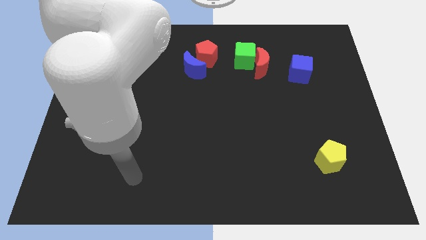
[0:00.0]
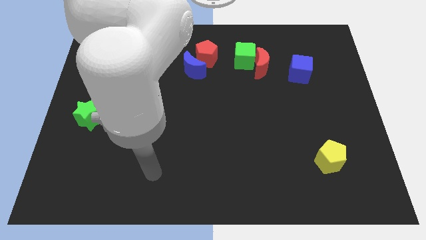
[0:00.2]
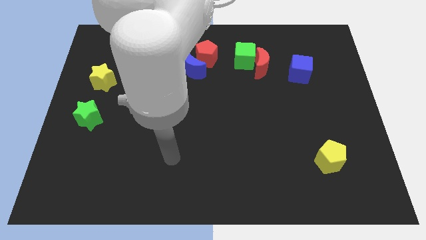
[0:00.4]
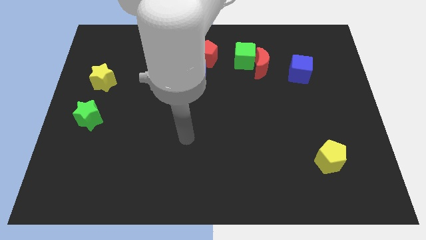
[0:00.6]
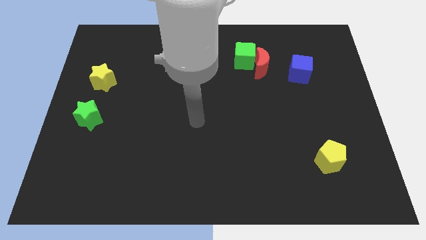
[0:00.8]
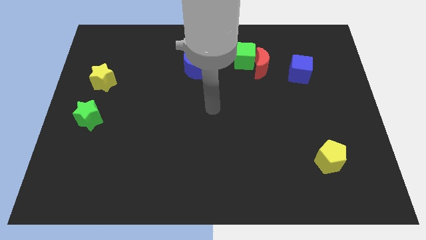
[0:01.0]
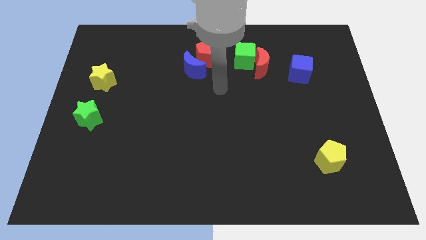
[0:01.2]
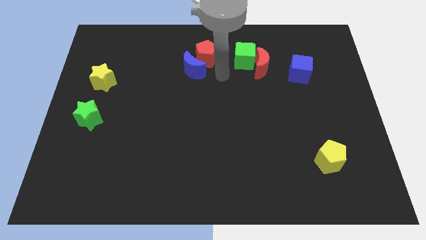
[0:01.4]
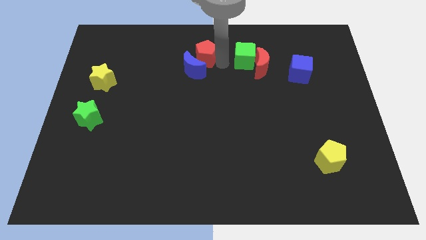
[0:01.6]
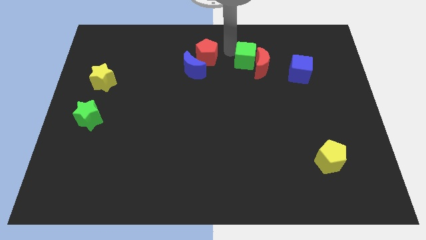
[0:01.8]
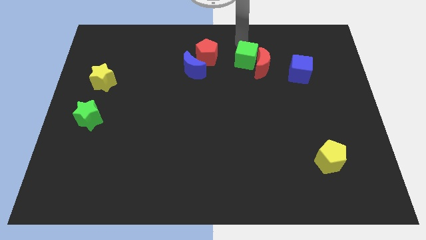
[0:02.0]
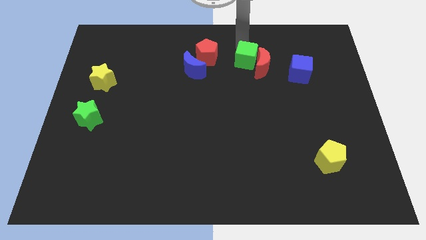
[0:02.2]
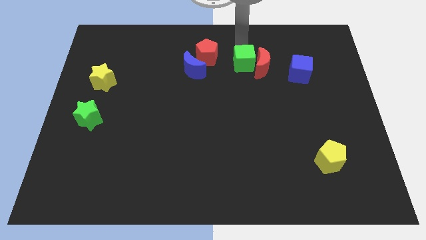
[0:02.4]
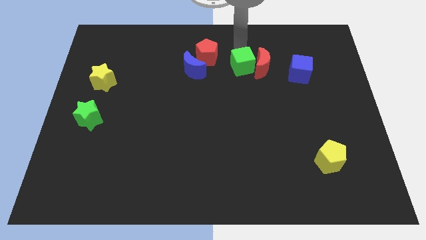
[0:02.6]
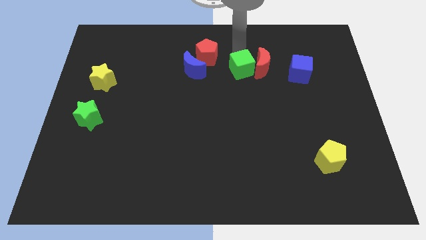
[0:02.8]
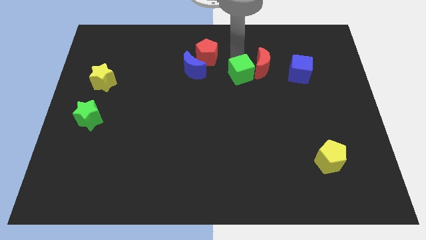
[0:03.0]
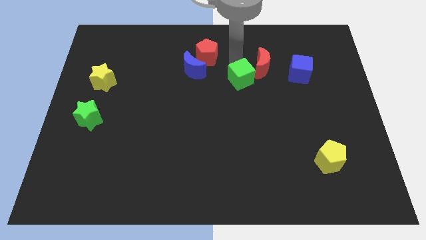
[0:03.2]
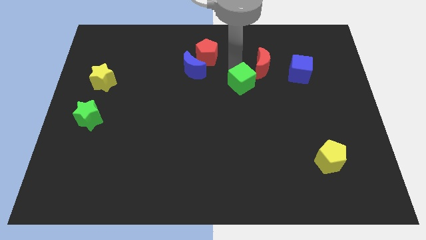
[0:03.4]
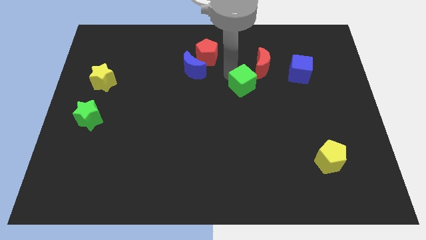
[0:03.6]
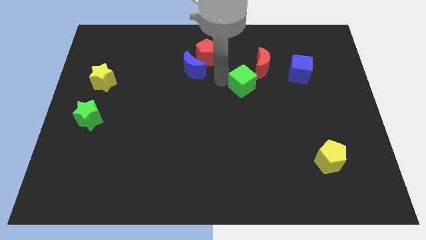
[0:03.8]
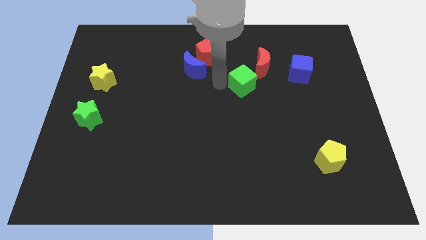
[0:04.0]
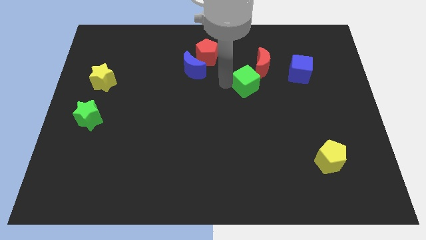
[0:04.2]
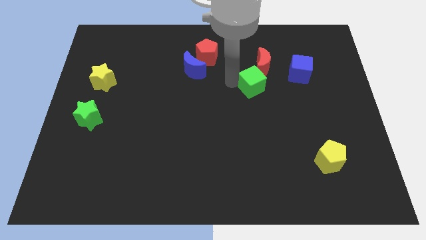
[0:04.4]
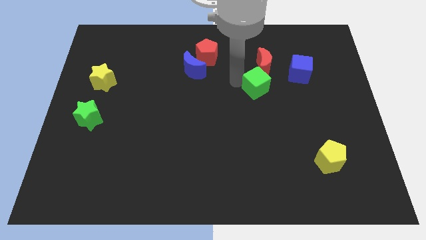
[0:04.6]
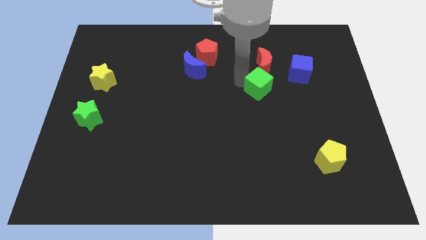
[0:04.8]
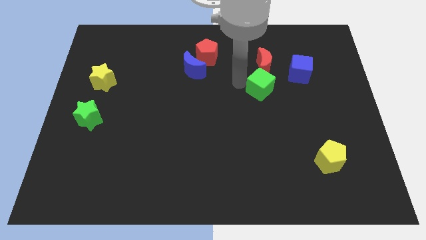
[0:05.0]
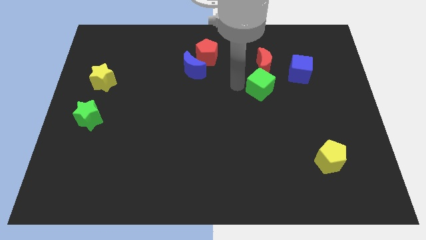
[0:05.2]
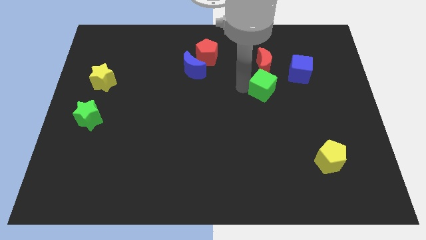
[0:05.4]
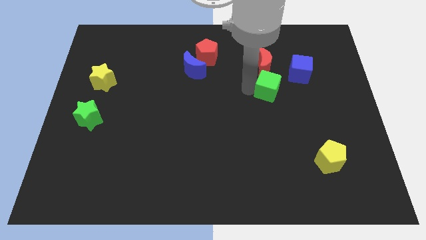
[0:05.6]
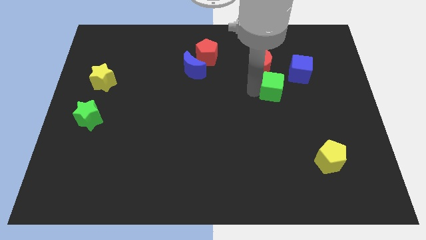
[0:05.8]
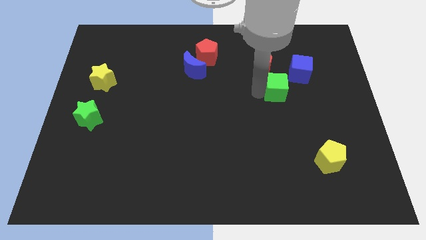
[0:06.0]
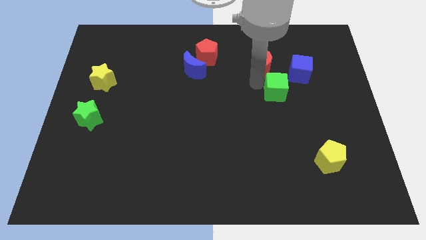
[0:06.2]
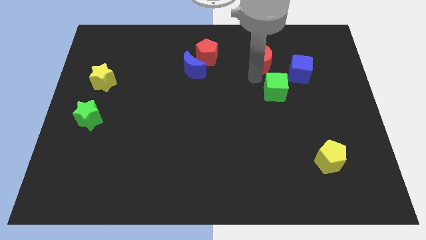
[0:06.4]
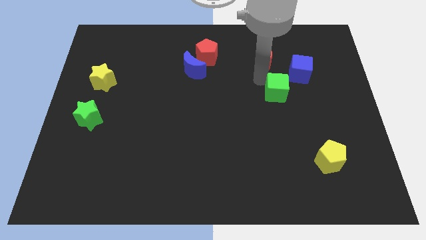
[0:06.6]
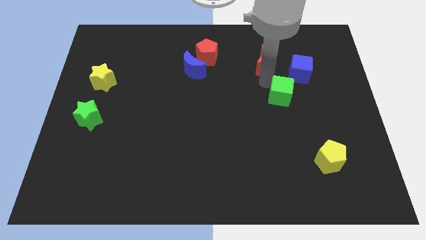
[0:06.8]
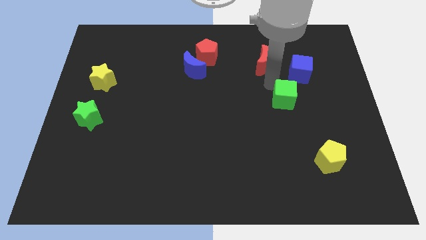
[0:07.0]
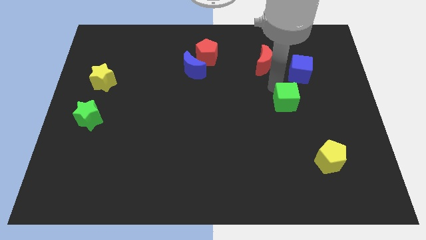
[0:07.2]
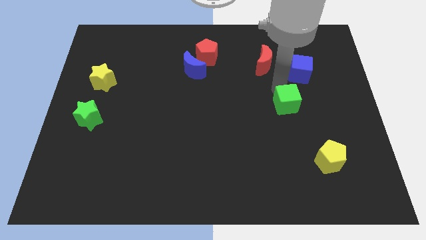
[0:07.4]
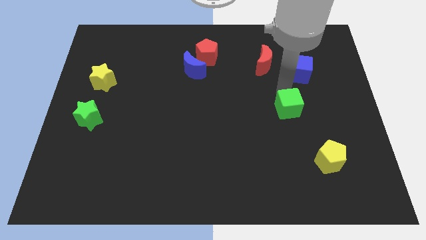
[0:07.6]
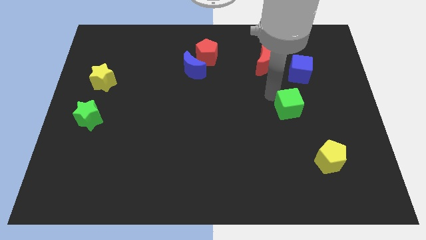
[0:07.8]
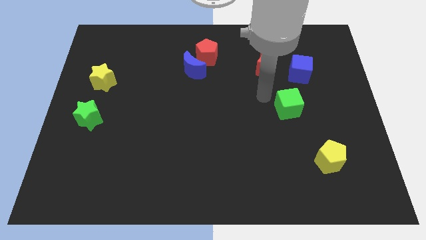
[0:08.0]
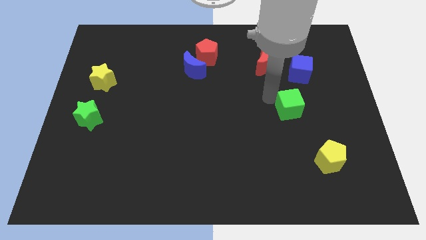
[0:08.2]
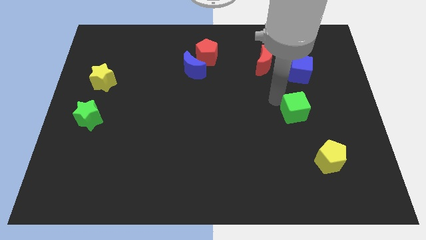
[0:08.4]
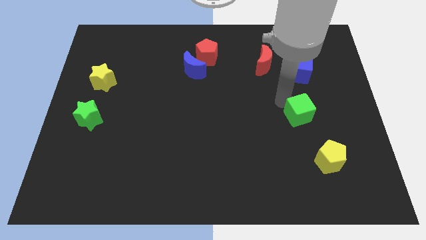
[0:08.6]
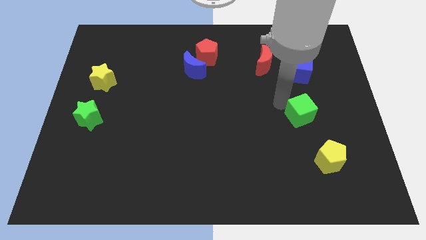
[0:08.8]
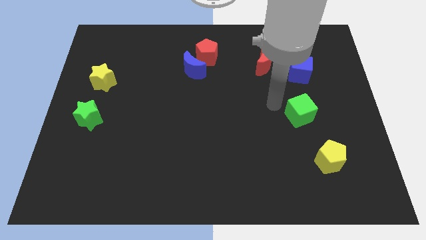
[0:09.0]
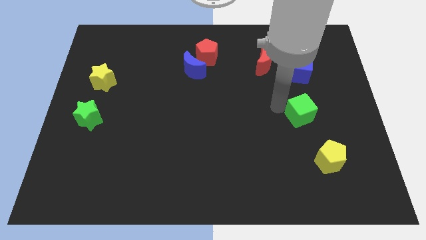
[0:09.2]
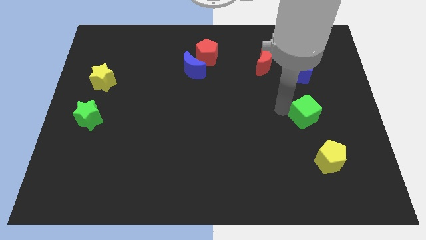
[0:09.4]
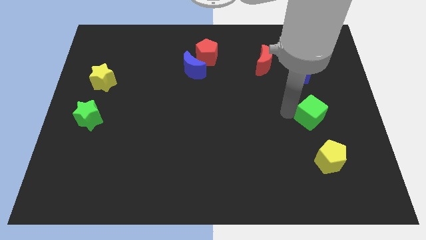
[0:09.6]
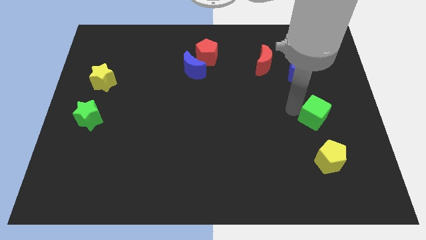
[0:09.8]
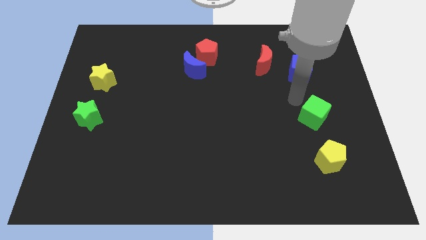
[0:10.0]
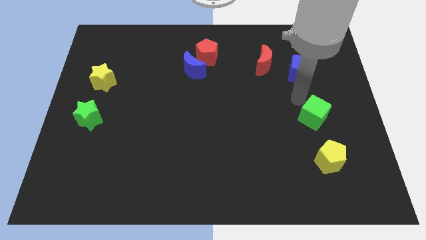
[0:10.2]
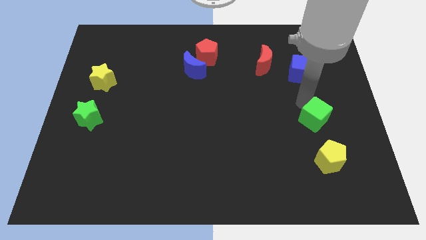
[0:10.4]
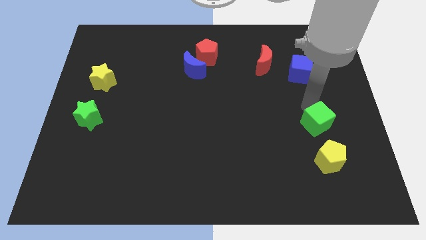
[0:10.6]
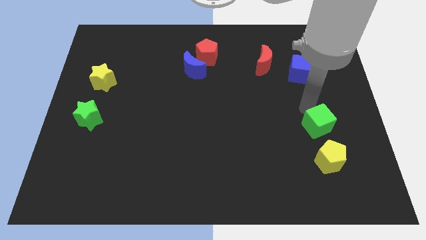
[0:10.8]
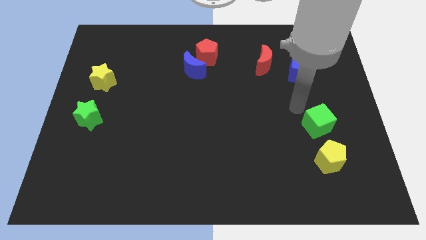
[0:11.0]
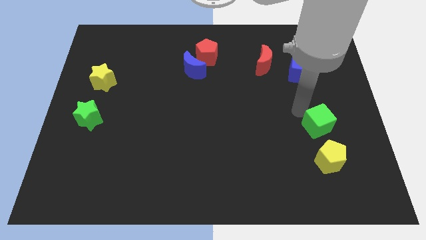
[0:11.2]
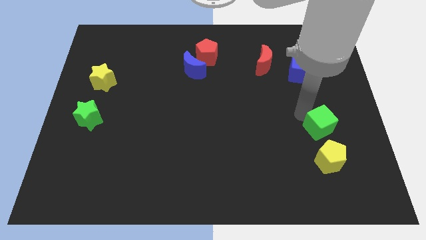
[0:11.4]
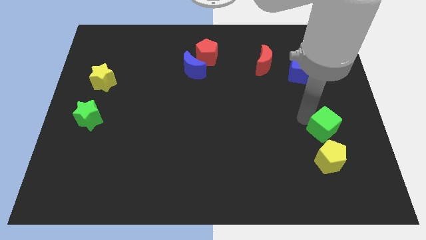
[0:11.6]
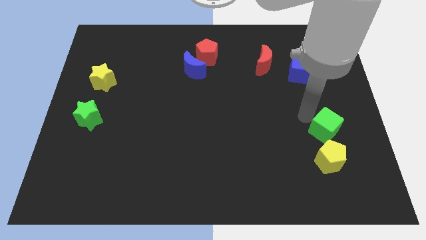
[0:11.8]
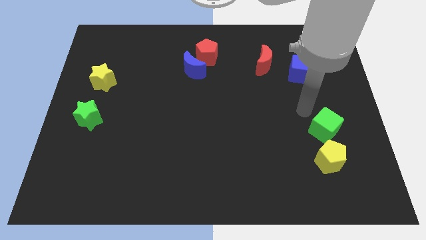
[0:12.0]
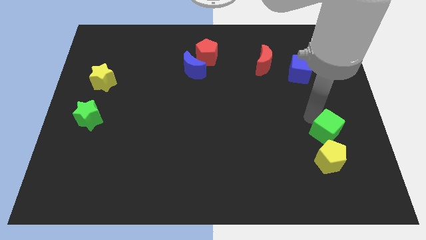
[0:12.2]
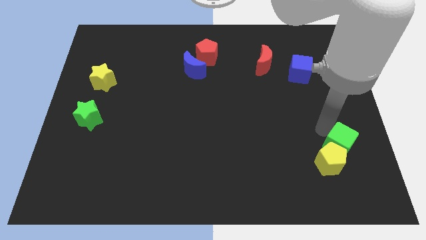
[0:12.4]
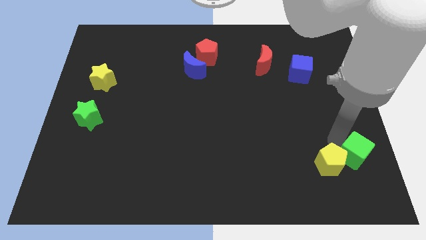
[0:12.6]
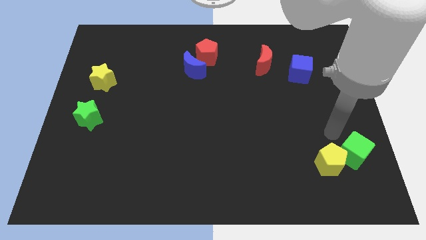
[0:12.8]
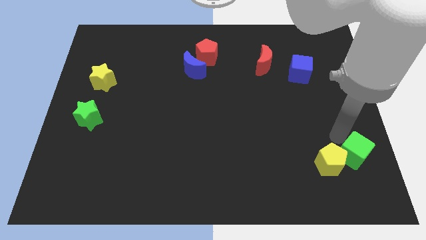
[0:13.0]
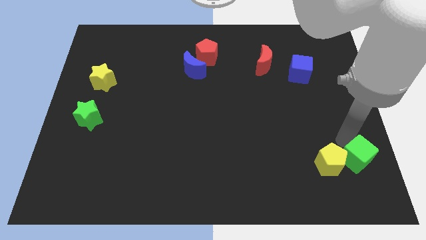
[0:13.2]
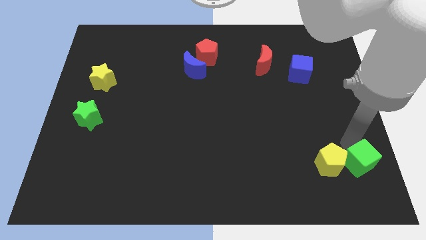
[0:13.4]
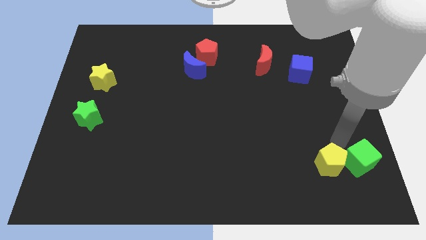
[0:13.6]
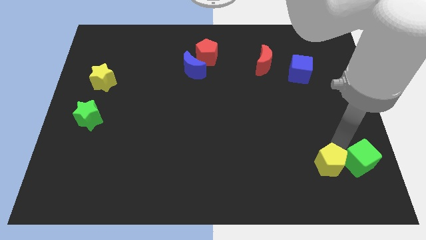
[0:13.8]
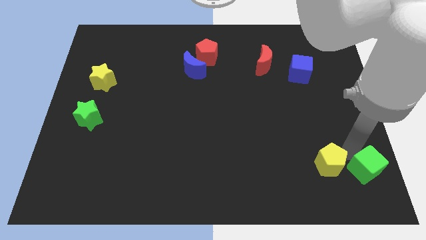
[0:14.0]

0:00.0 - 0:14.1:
put the green cube to the bottom right corner
